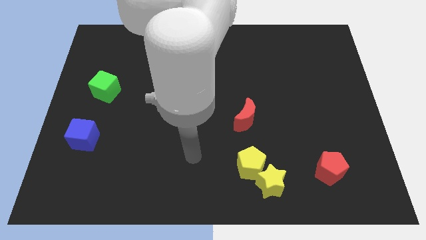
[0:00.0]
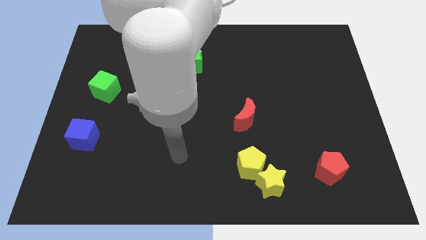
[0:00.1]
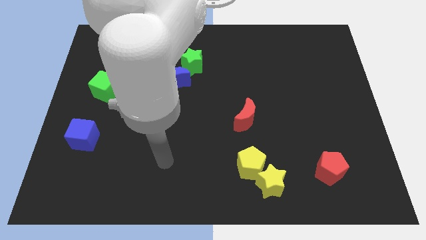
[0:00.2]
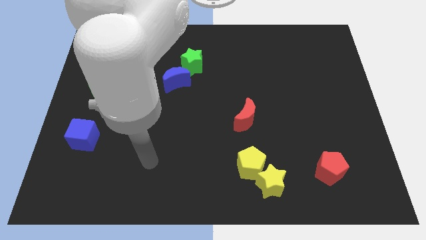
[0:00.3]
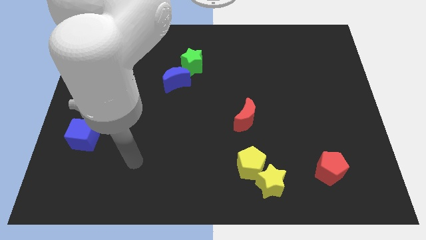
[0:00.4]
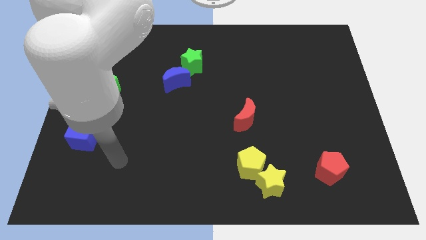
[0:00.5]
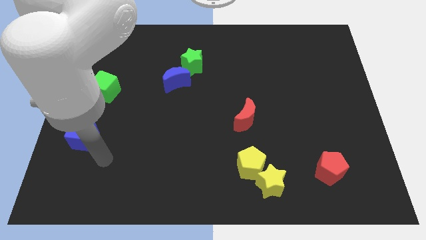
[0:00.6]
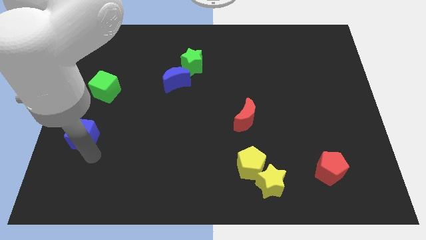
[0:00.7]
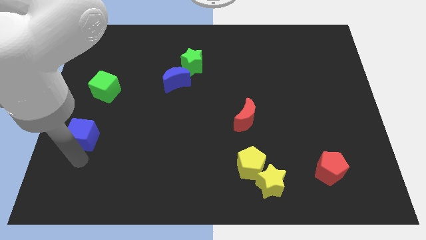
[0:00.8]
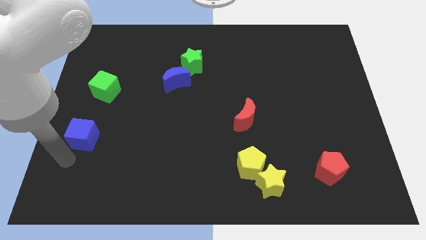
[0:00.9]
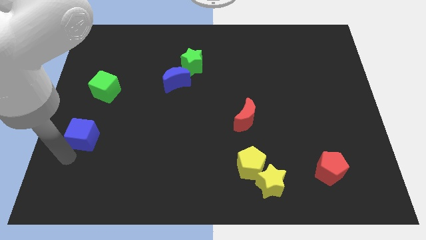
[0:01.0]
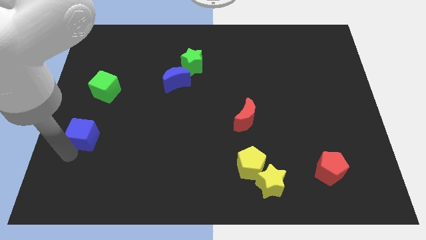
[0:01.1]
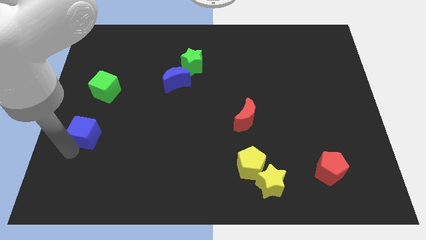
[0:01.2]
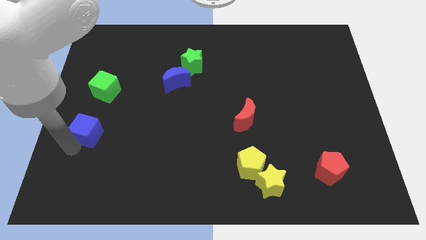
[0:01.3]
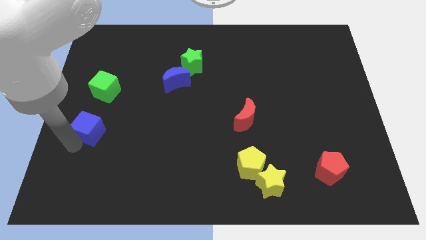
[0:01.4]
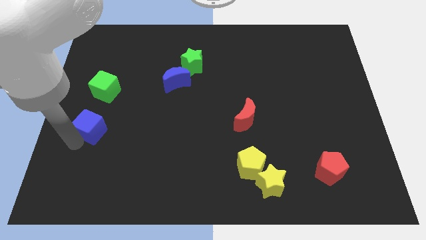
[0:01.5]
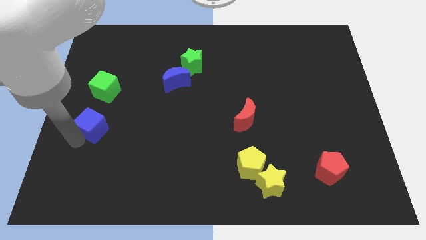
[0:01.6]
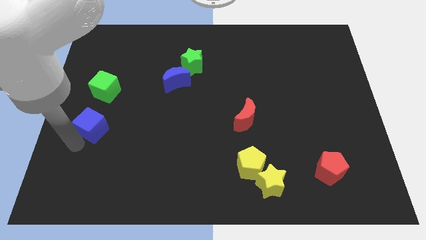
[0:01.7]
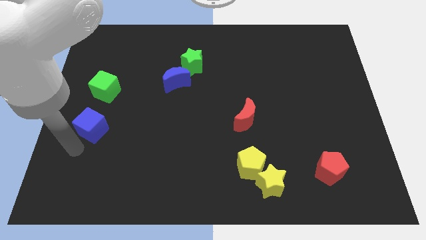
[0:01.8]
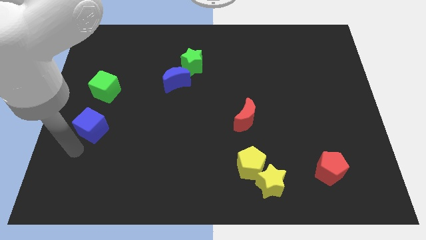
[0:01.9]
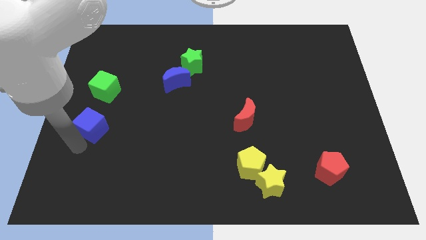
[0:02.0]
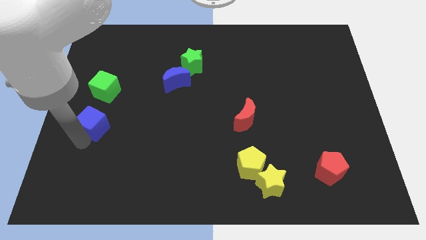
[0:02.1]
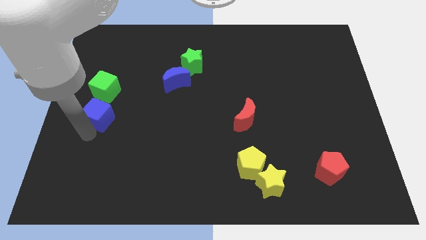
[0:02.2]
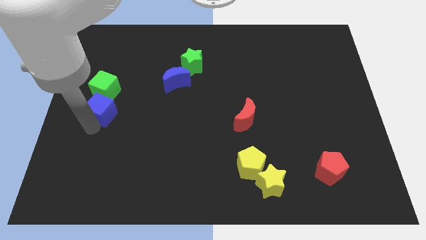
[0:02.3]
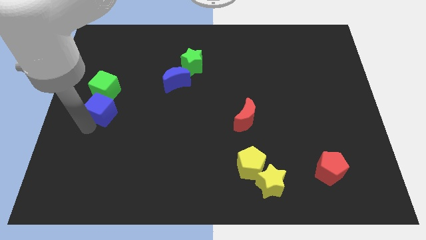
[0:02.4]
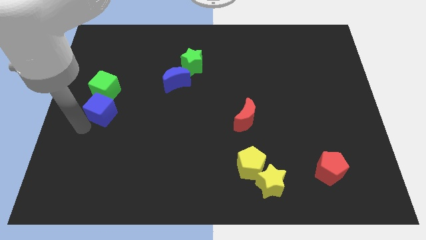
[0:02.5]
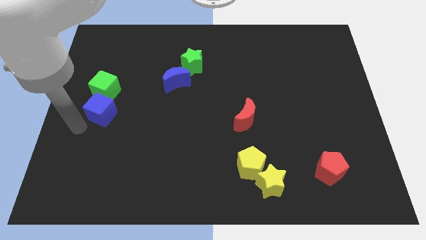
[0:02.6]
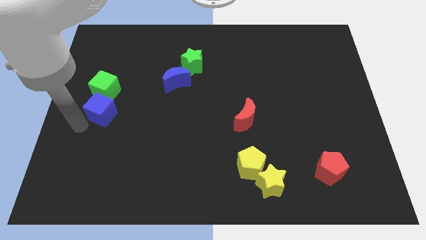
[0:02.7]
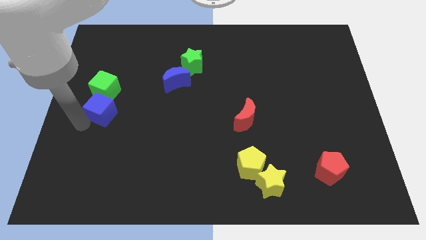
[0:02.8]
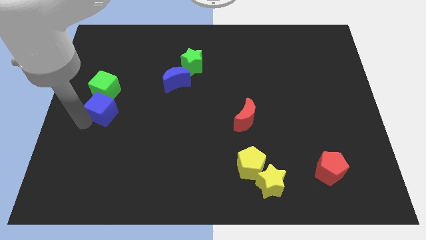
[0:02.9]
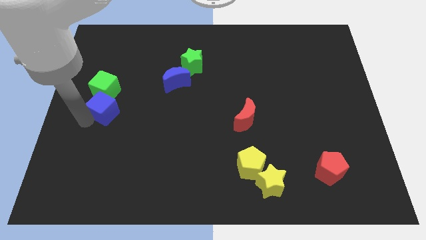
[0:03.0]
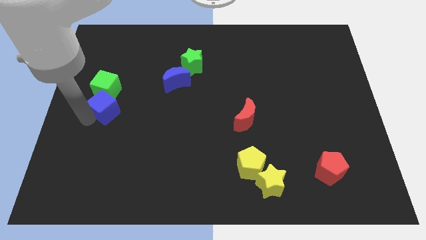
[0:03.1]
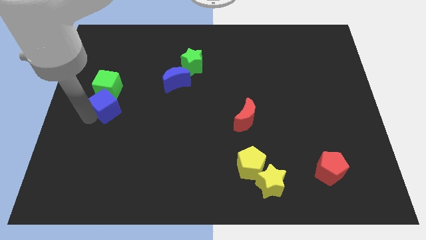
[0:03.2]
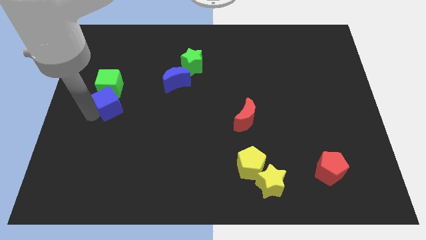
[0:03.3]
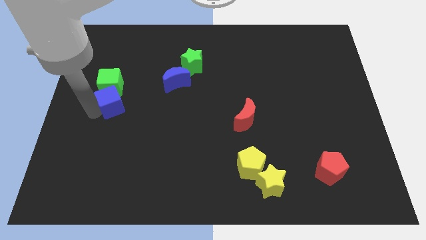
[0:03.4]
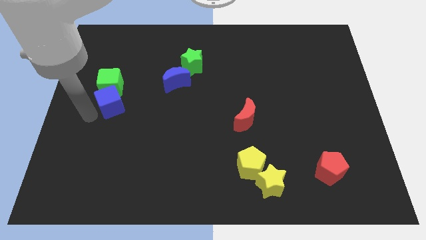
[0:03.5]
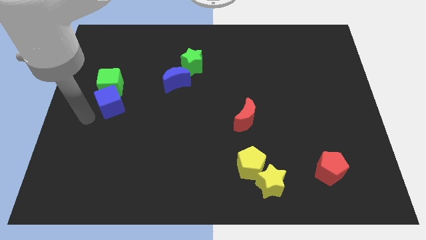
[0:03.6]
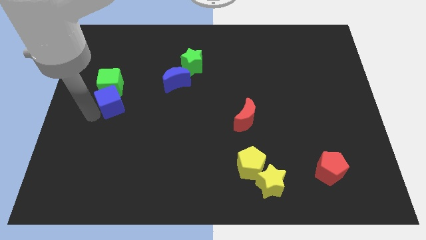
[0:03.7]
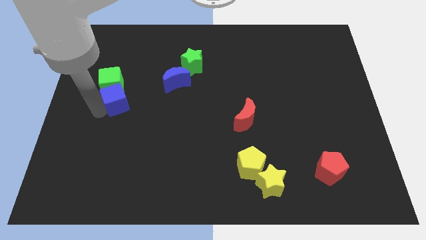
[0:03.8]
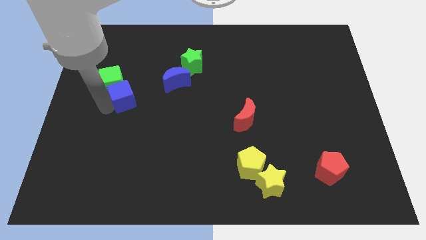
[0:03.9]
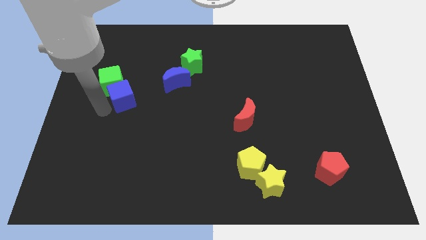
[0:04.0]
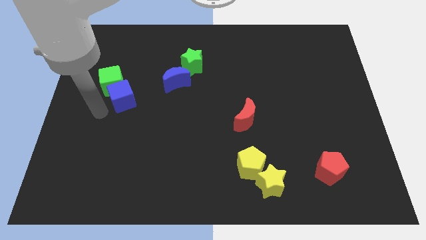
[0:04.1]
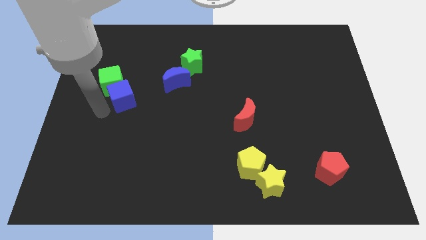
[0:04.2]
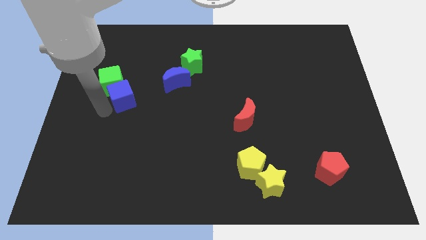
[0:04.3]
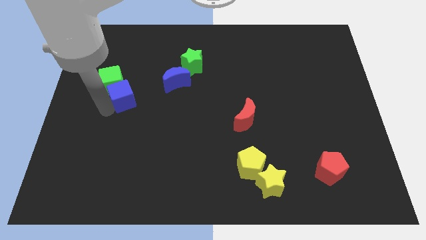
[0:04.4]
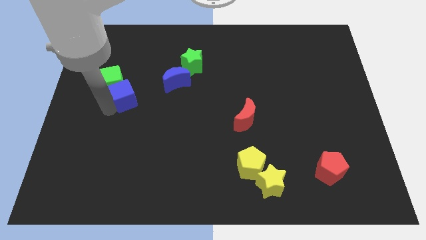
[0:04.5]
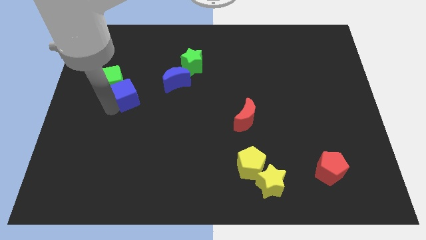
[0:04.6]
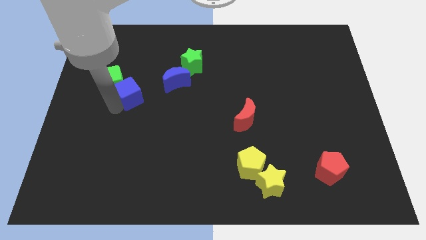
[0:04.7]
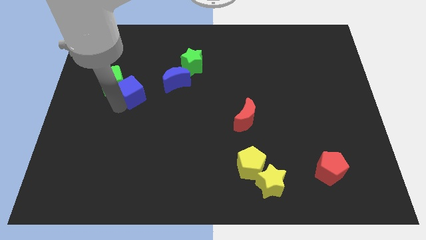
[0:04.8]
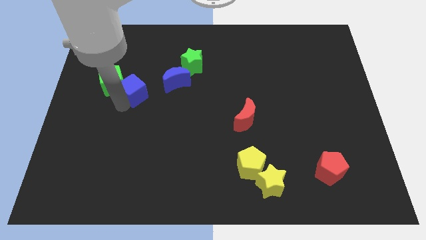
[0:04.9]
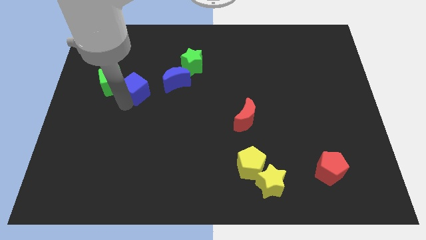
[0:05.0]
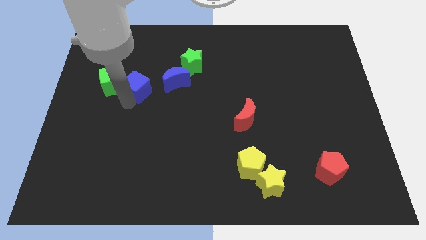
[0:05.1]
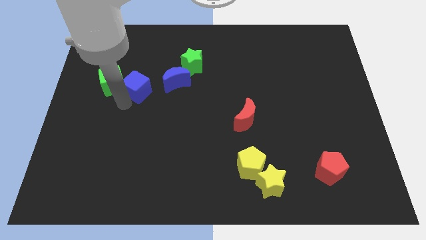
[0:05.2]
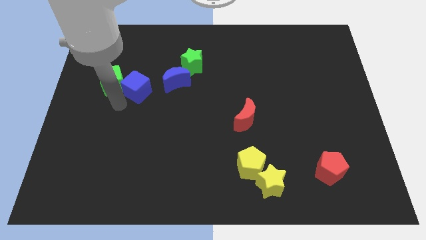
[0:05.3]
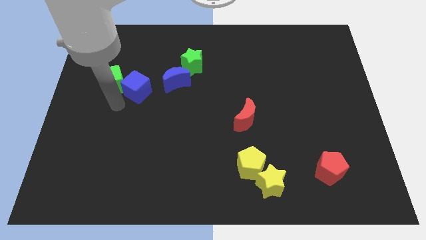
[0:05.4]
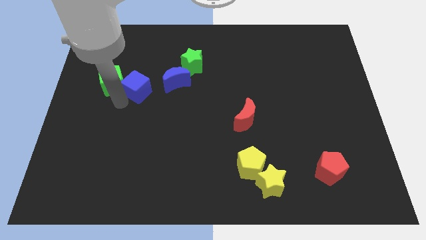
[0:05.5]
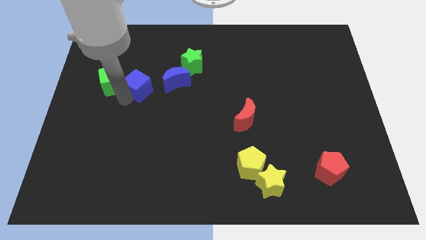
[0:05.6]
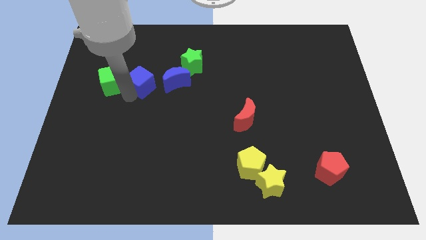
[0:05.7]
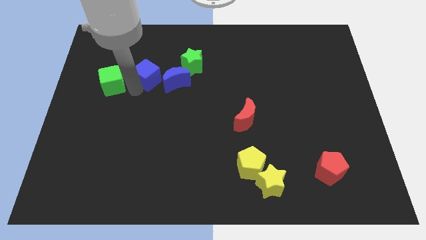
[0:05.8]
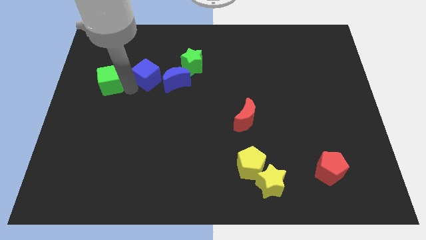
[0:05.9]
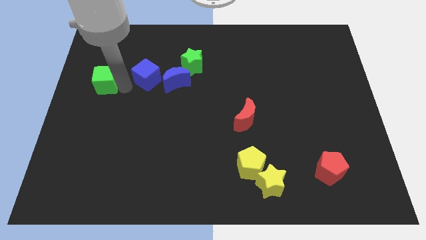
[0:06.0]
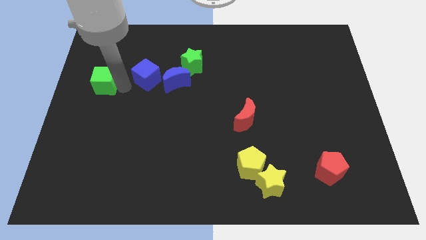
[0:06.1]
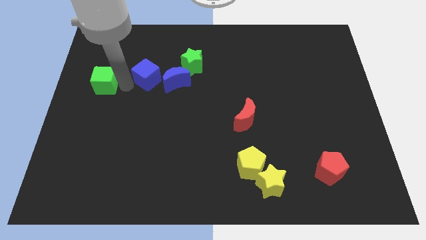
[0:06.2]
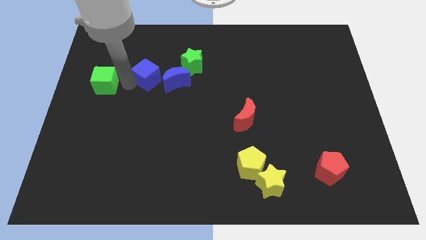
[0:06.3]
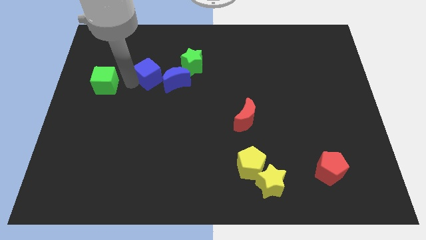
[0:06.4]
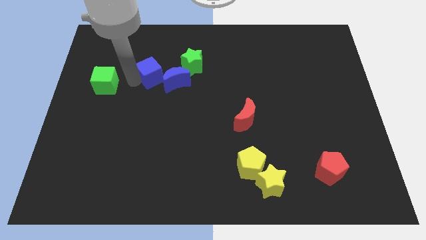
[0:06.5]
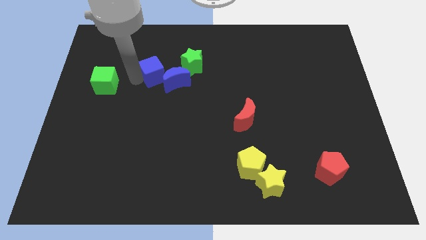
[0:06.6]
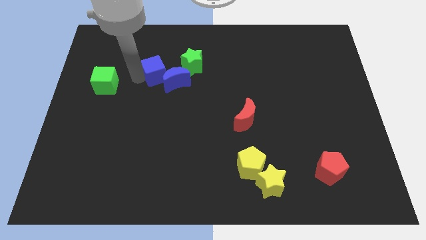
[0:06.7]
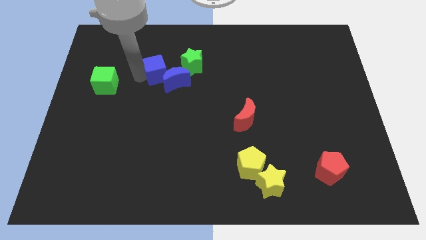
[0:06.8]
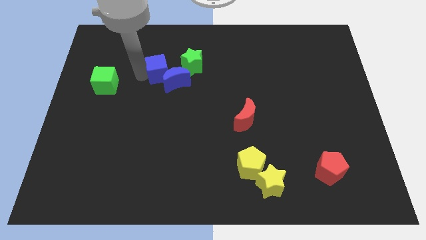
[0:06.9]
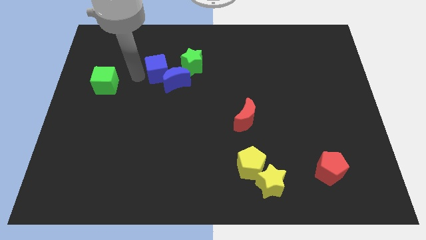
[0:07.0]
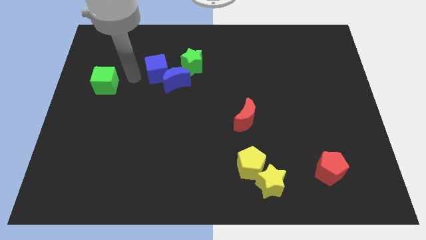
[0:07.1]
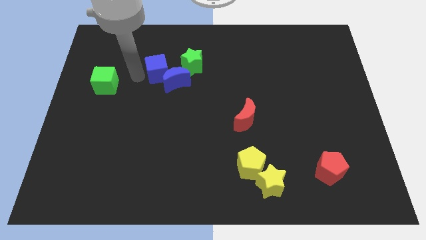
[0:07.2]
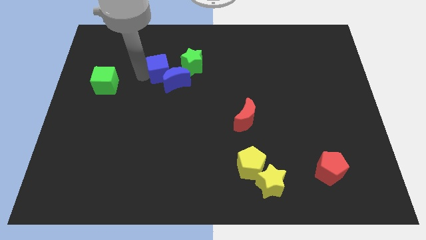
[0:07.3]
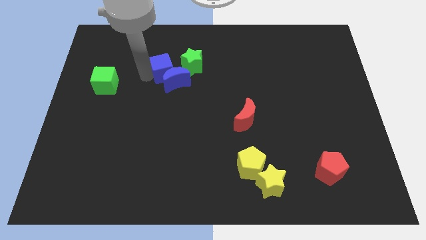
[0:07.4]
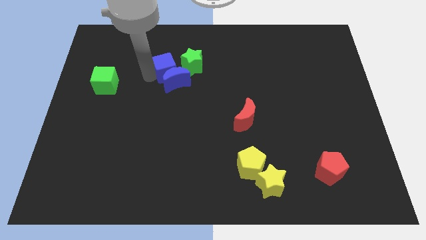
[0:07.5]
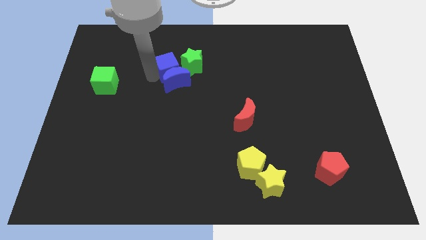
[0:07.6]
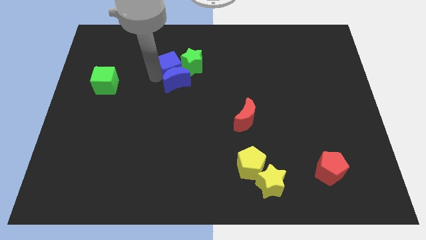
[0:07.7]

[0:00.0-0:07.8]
push the blue cube diagonally up and to the right of the blue moon
